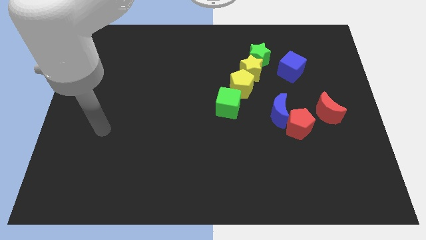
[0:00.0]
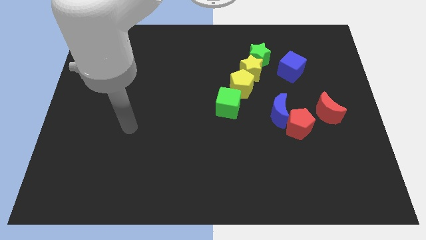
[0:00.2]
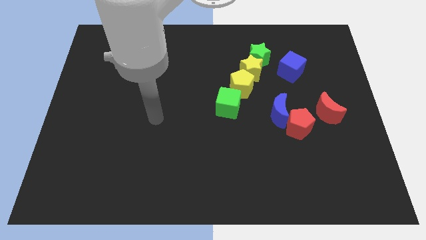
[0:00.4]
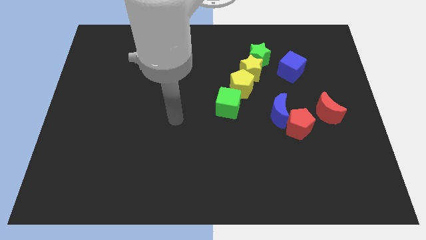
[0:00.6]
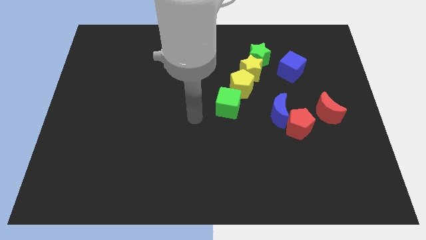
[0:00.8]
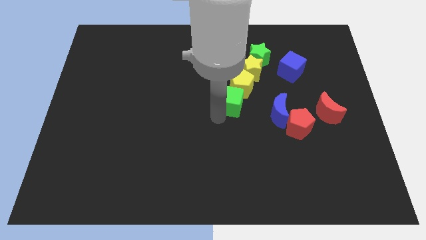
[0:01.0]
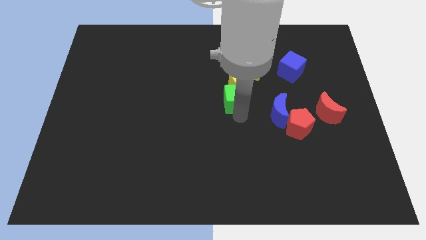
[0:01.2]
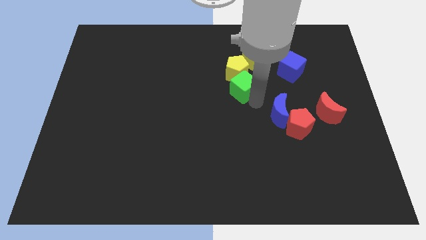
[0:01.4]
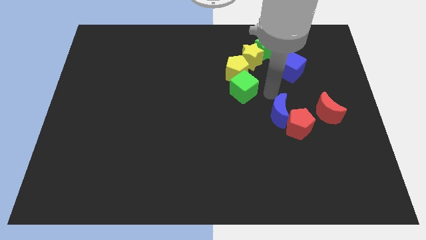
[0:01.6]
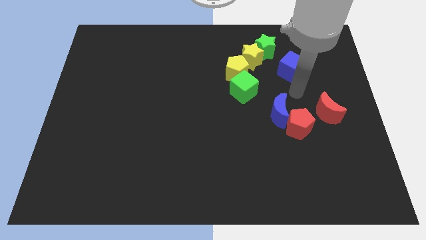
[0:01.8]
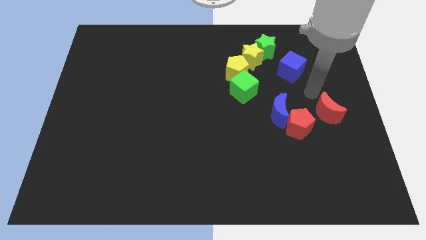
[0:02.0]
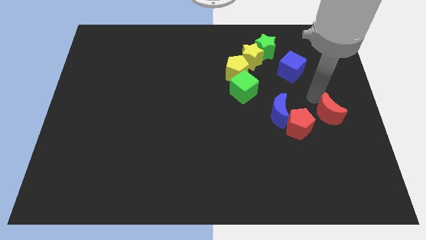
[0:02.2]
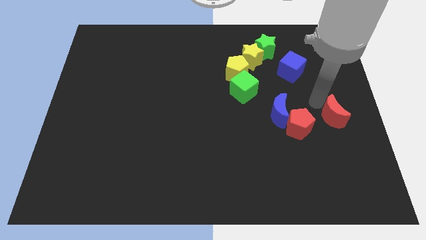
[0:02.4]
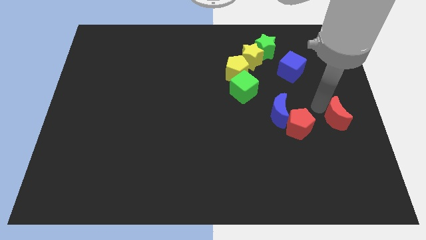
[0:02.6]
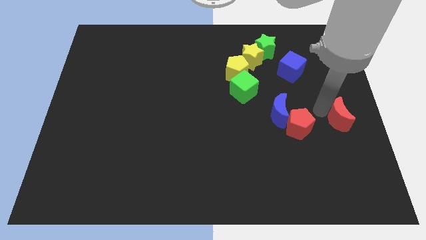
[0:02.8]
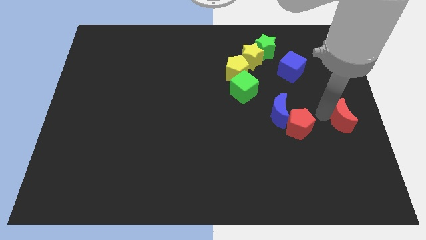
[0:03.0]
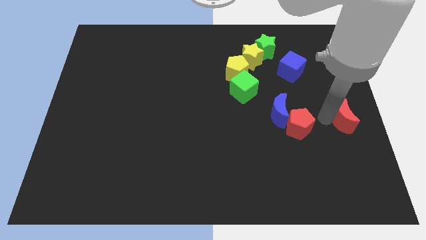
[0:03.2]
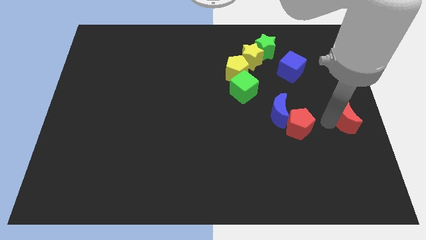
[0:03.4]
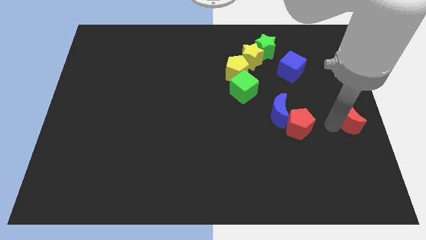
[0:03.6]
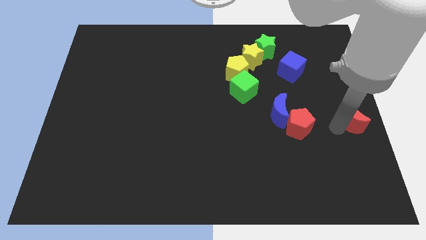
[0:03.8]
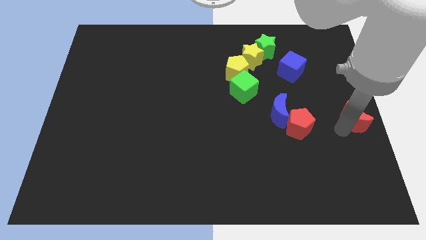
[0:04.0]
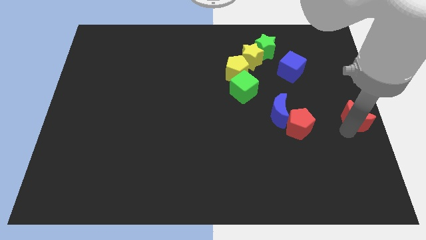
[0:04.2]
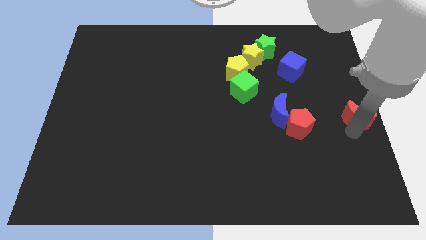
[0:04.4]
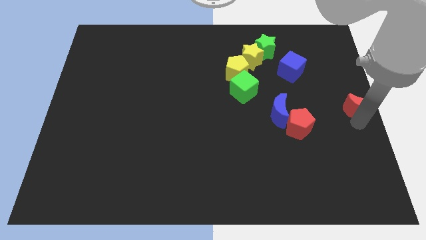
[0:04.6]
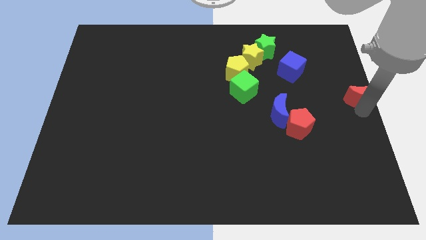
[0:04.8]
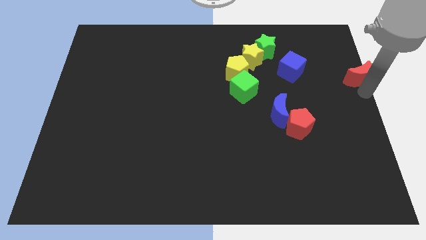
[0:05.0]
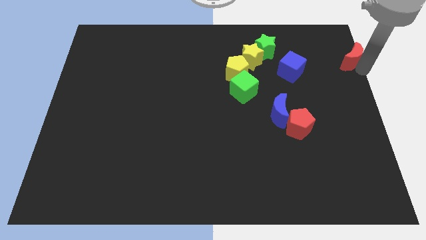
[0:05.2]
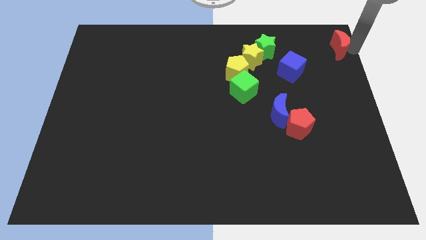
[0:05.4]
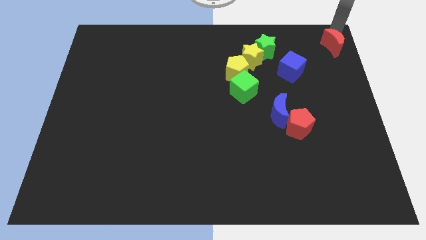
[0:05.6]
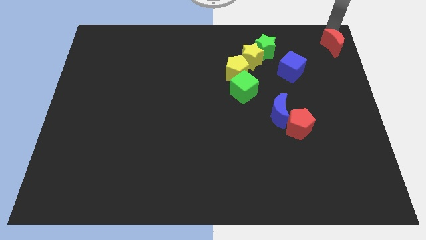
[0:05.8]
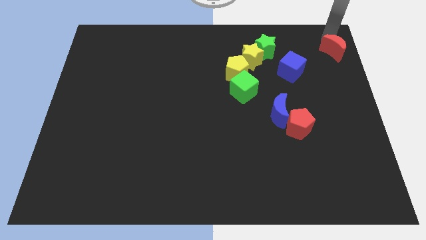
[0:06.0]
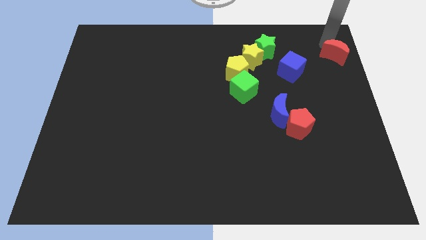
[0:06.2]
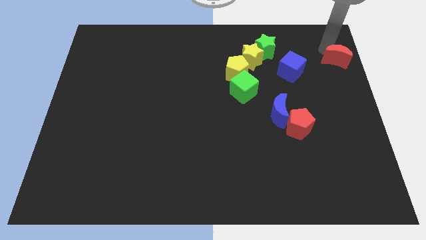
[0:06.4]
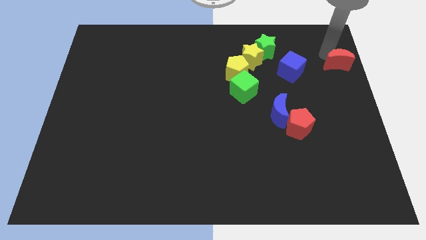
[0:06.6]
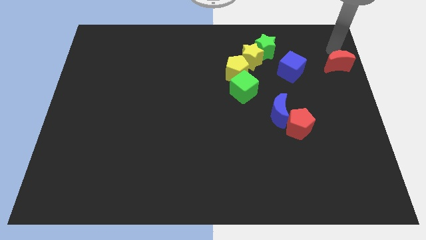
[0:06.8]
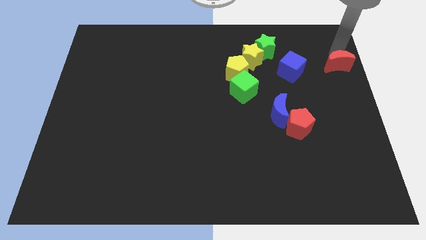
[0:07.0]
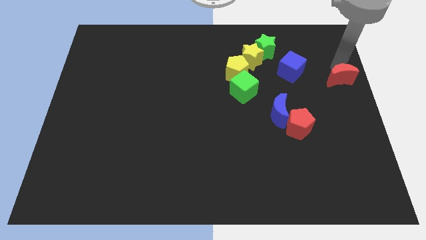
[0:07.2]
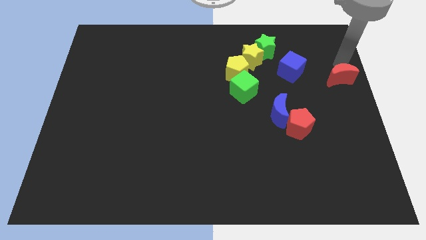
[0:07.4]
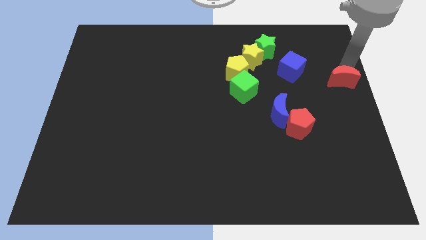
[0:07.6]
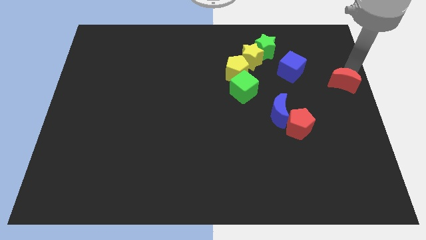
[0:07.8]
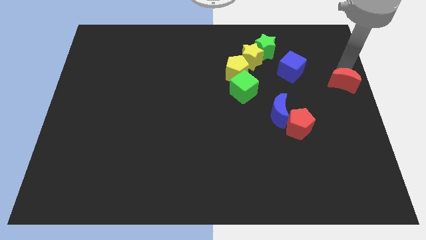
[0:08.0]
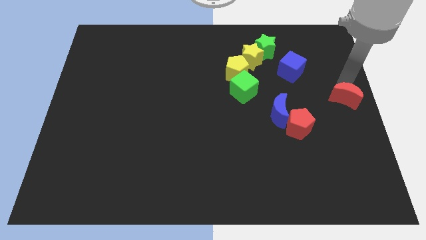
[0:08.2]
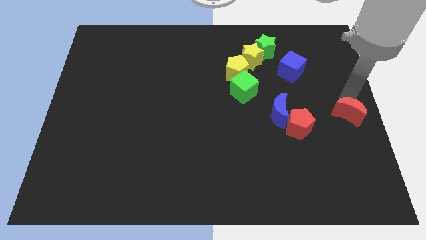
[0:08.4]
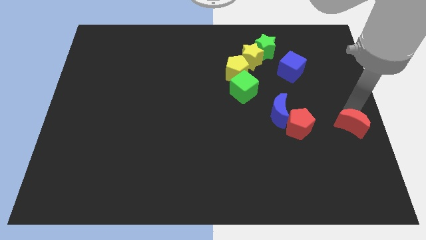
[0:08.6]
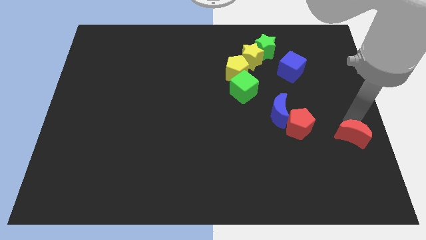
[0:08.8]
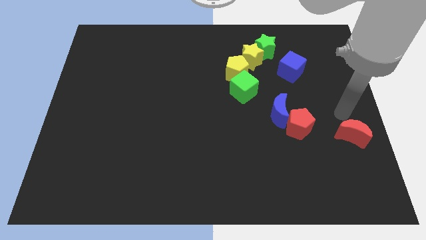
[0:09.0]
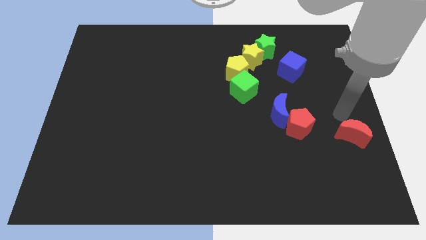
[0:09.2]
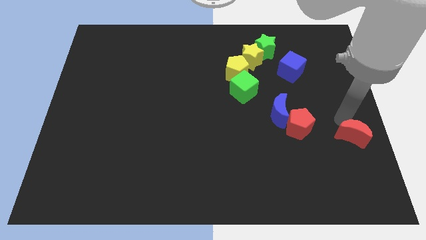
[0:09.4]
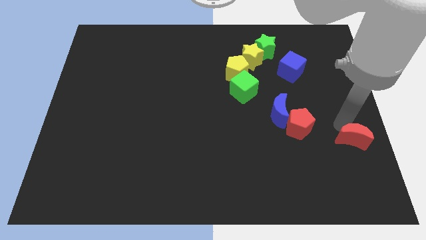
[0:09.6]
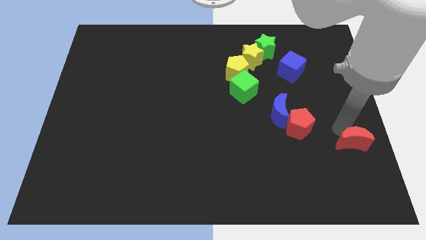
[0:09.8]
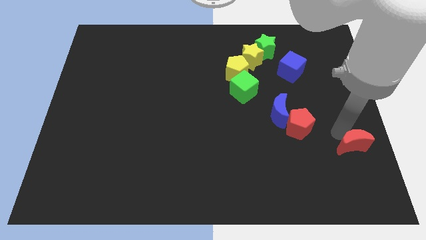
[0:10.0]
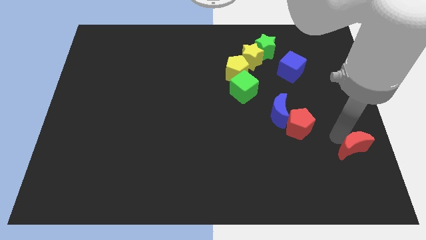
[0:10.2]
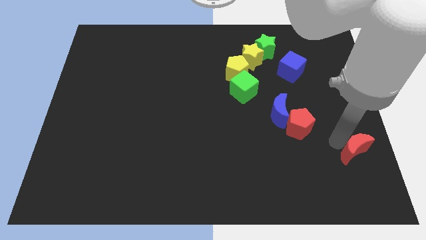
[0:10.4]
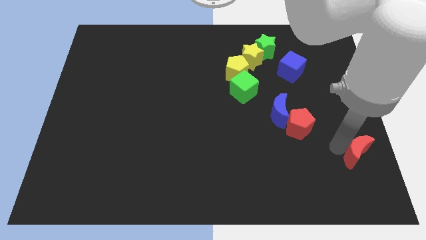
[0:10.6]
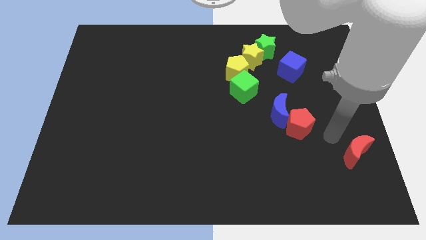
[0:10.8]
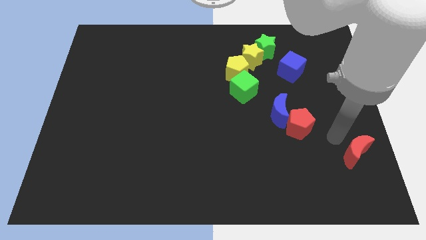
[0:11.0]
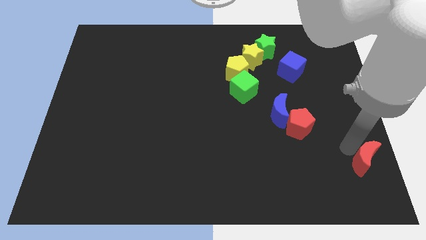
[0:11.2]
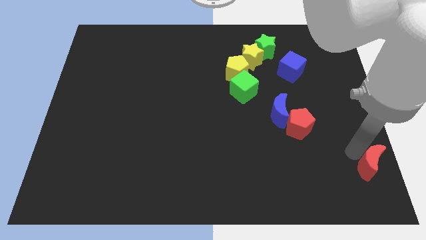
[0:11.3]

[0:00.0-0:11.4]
push the red moon to the bottom right

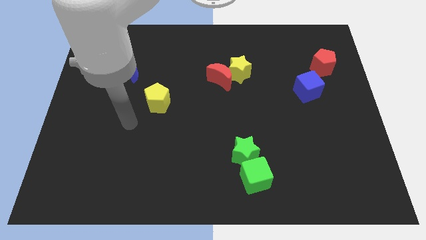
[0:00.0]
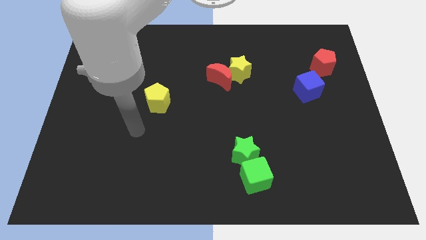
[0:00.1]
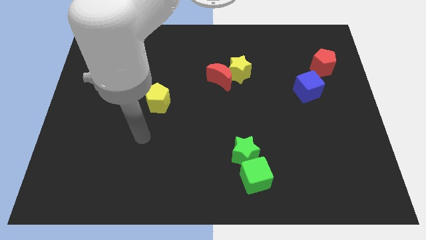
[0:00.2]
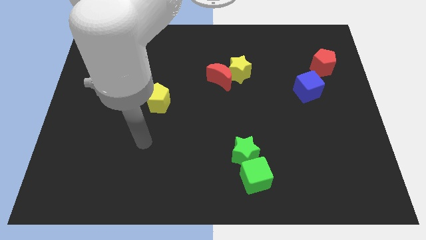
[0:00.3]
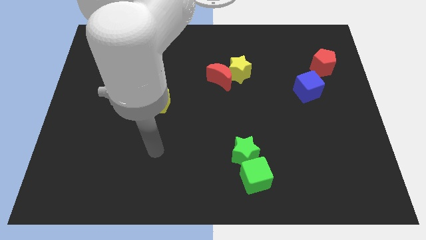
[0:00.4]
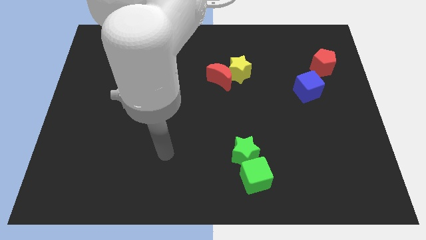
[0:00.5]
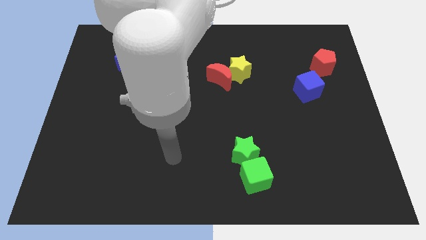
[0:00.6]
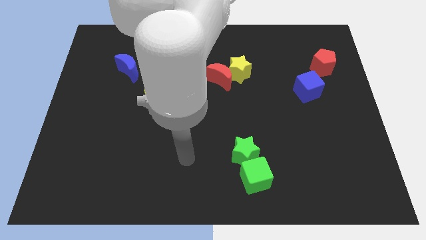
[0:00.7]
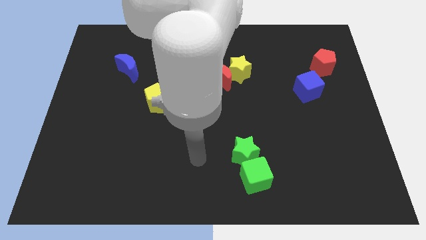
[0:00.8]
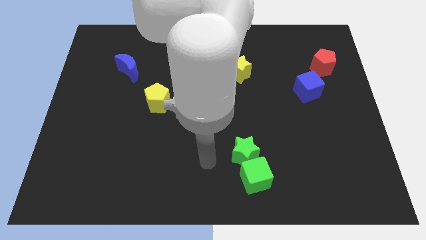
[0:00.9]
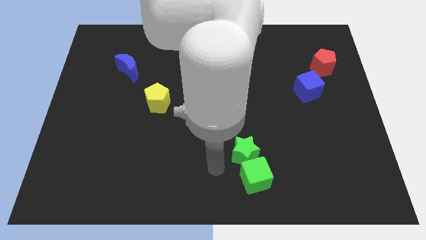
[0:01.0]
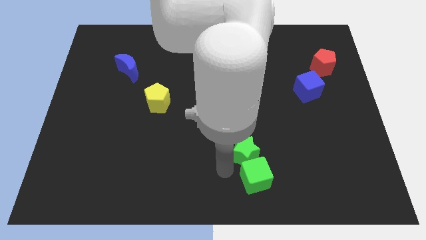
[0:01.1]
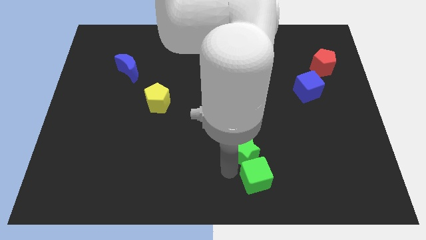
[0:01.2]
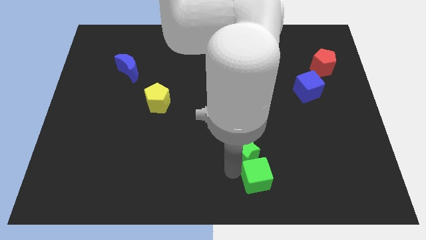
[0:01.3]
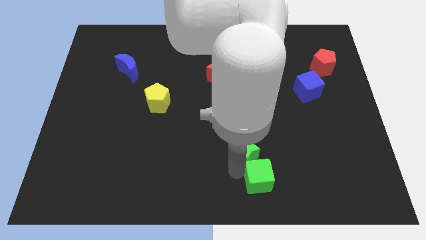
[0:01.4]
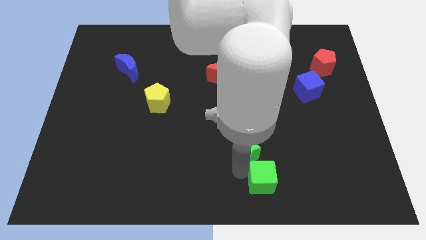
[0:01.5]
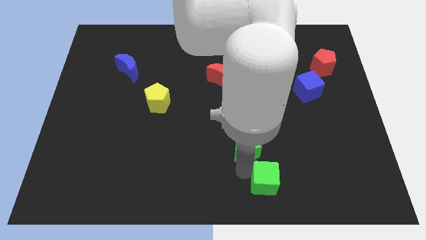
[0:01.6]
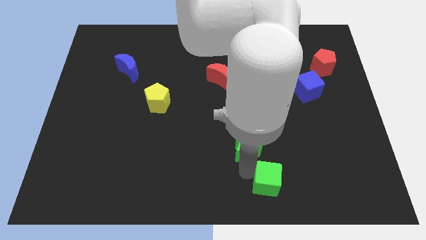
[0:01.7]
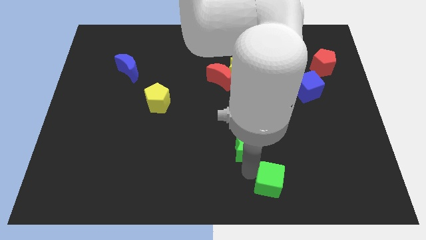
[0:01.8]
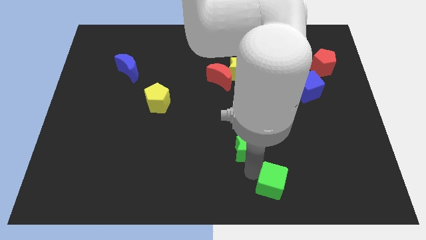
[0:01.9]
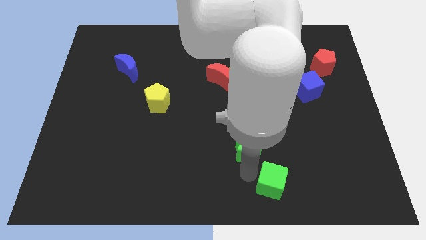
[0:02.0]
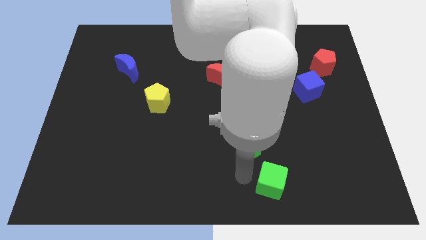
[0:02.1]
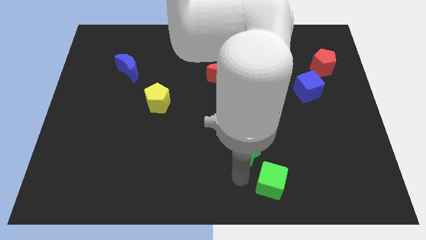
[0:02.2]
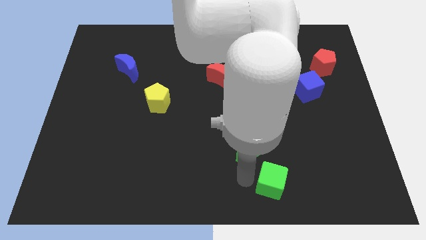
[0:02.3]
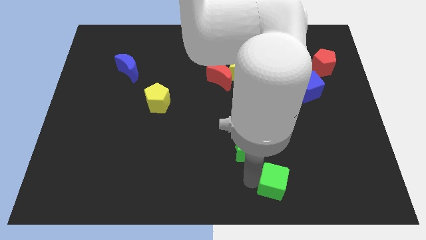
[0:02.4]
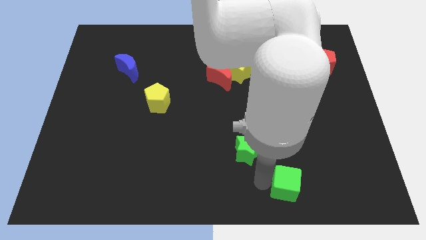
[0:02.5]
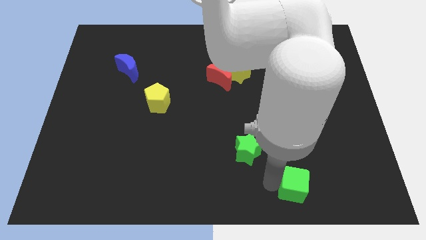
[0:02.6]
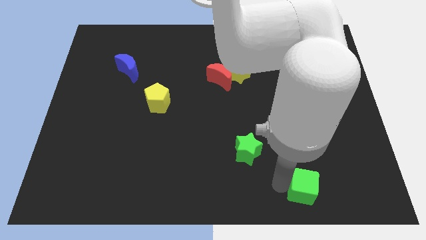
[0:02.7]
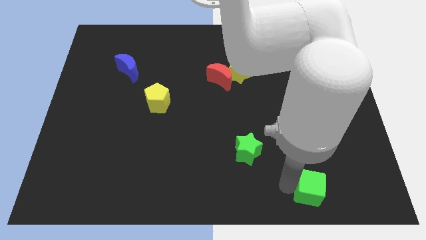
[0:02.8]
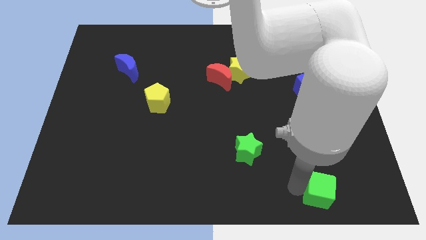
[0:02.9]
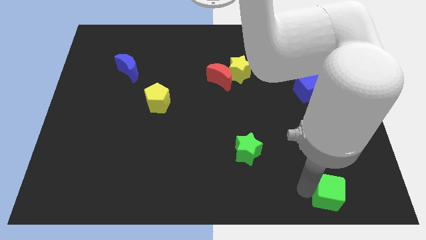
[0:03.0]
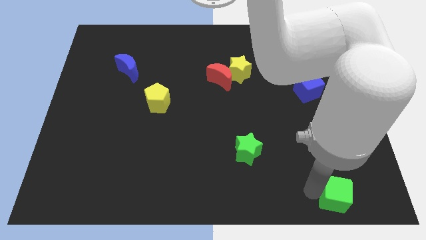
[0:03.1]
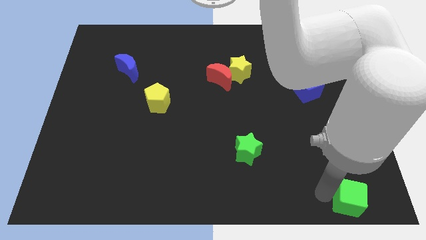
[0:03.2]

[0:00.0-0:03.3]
put the green cube to the bottom right of the board
